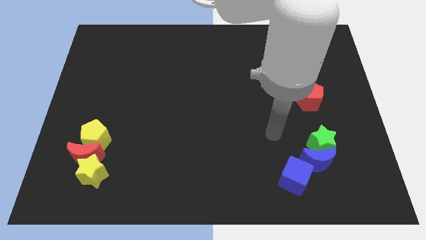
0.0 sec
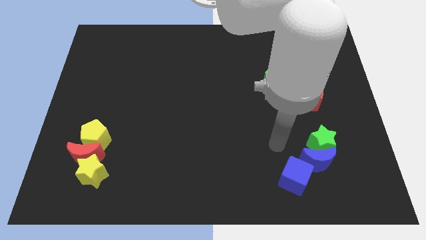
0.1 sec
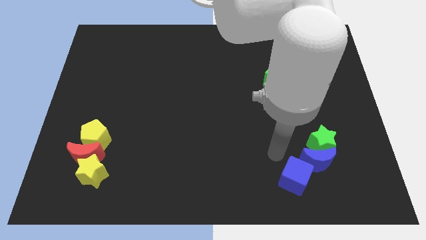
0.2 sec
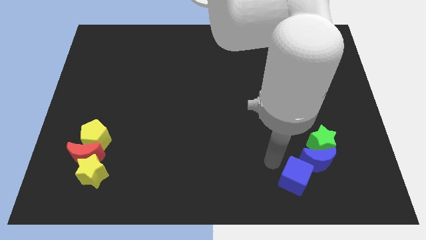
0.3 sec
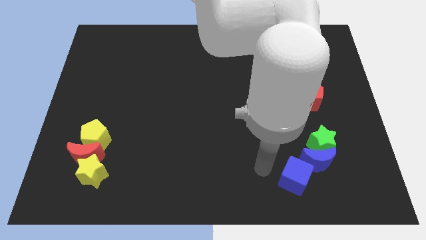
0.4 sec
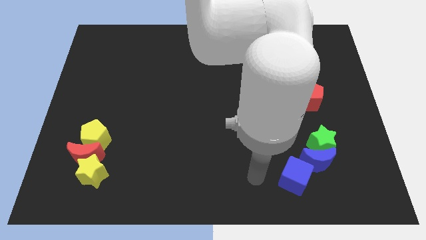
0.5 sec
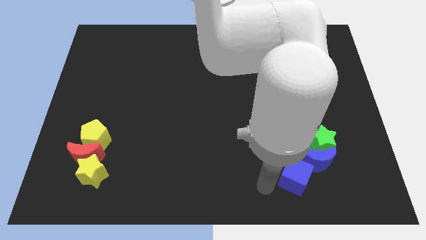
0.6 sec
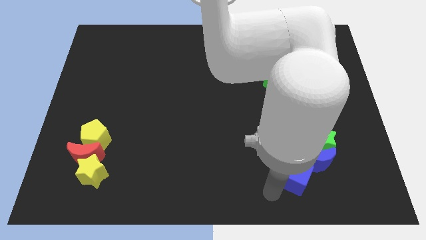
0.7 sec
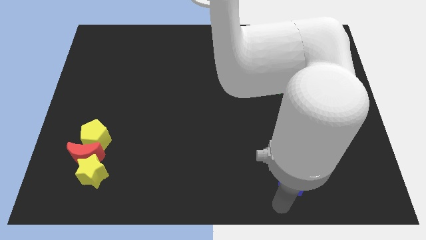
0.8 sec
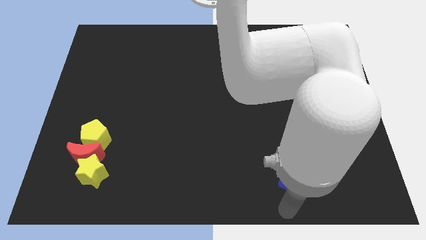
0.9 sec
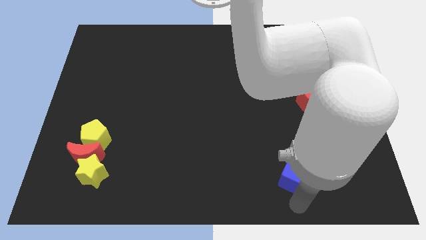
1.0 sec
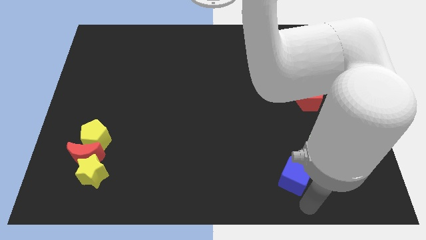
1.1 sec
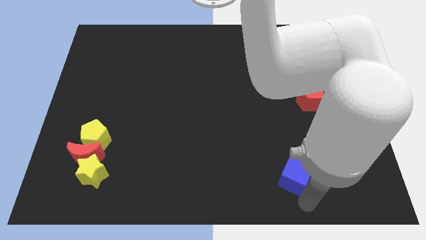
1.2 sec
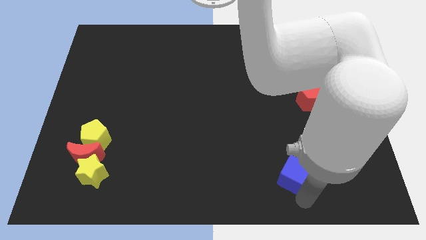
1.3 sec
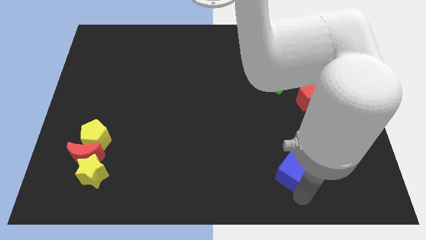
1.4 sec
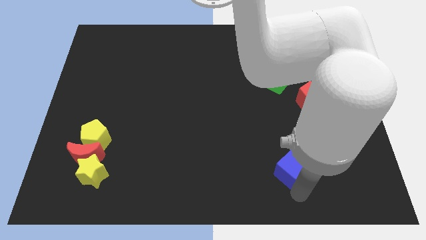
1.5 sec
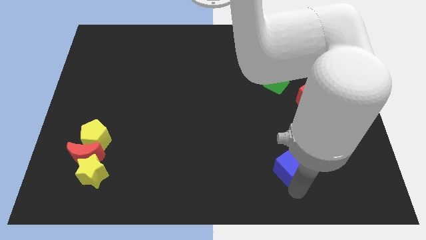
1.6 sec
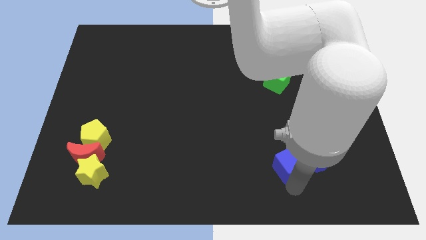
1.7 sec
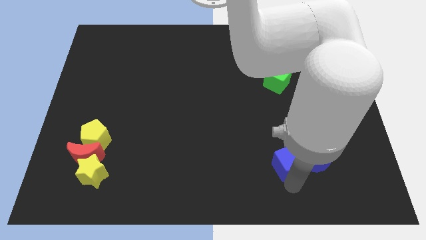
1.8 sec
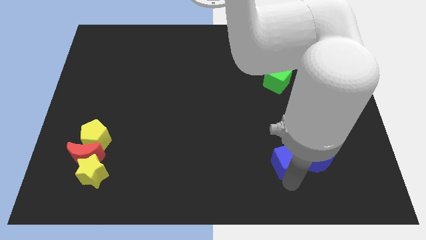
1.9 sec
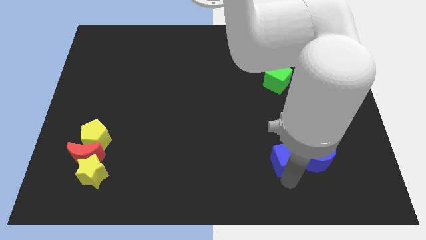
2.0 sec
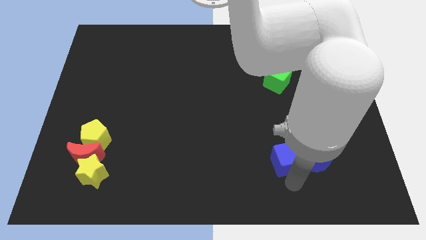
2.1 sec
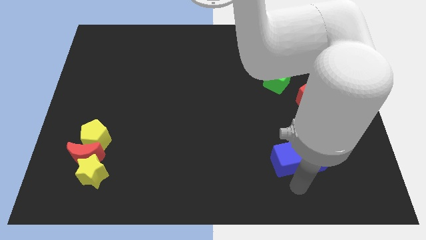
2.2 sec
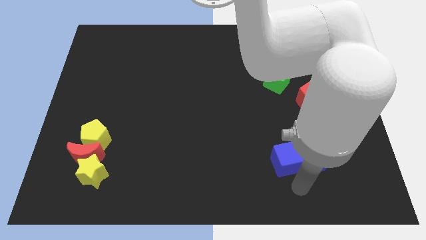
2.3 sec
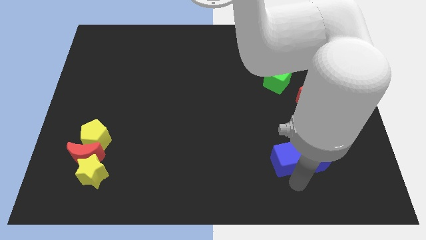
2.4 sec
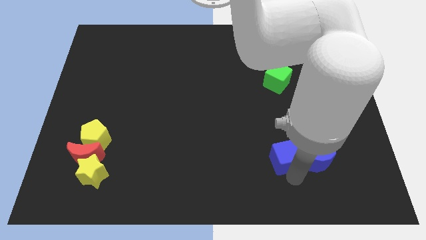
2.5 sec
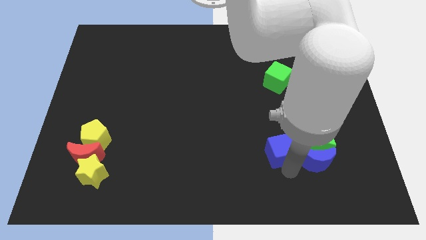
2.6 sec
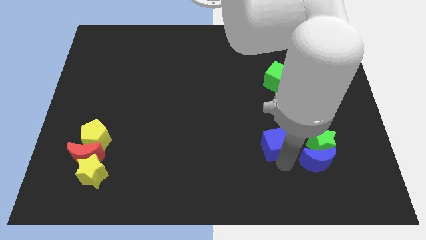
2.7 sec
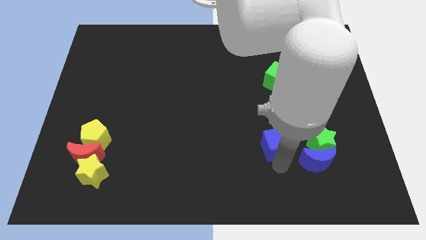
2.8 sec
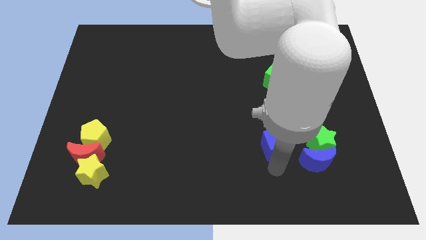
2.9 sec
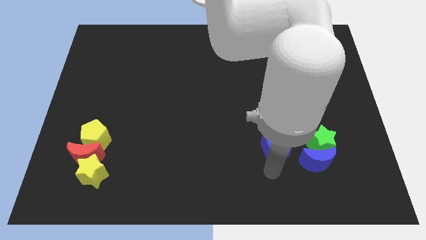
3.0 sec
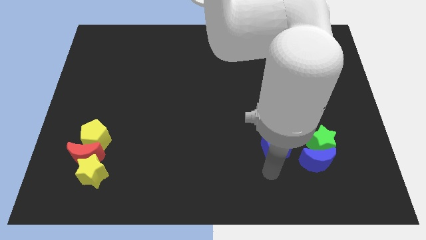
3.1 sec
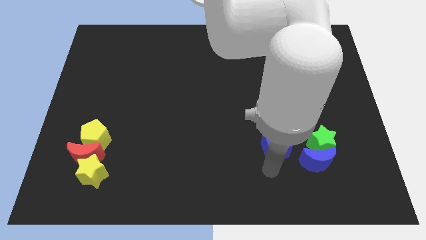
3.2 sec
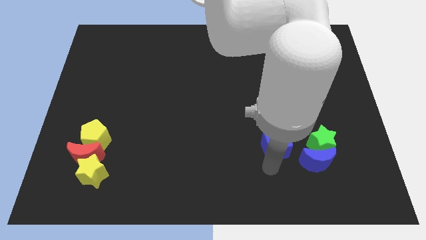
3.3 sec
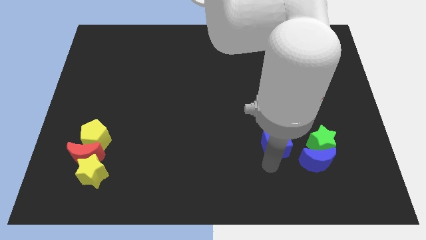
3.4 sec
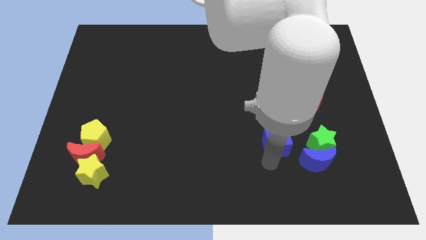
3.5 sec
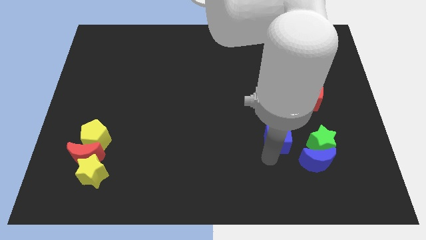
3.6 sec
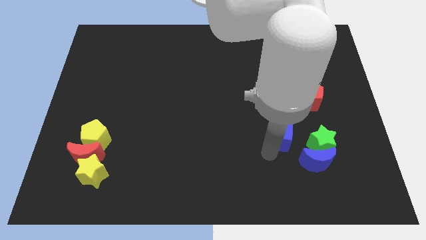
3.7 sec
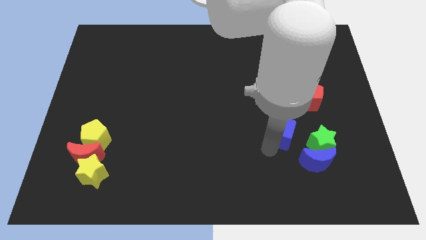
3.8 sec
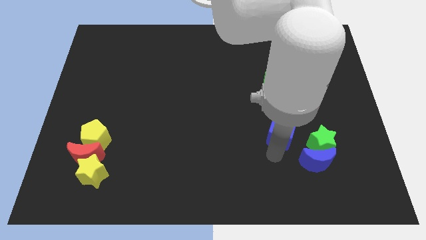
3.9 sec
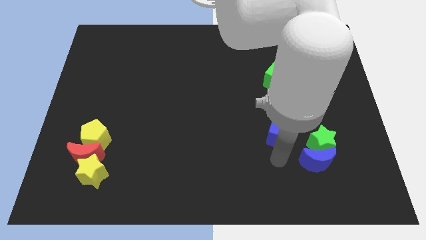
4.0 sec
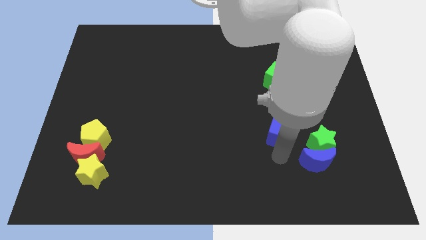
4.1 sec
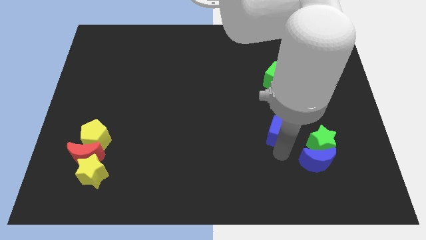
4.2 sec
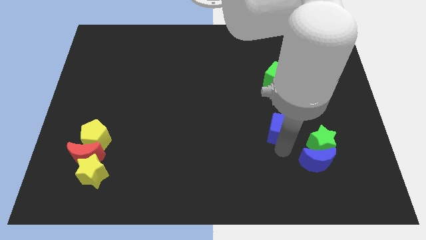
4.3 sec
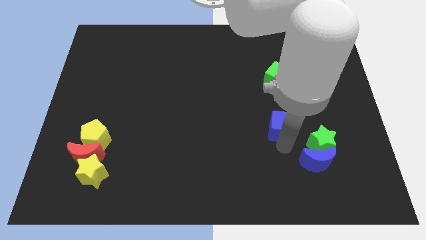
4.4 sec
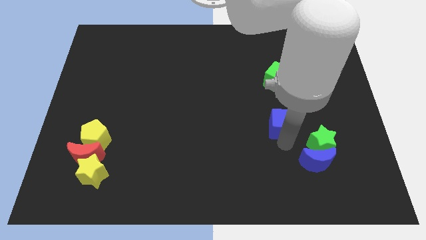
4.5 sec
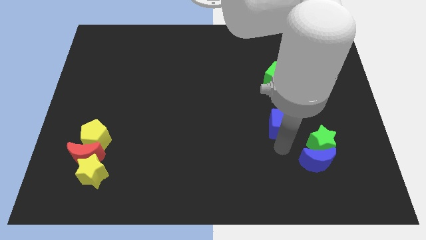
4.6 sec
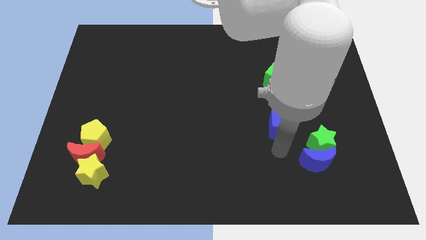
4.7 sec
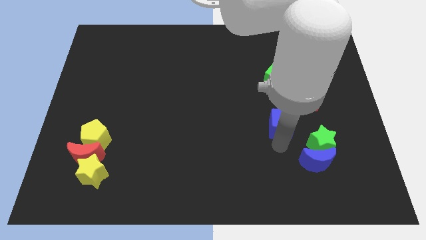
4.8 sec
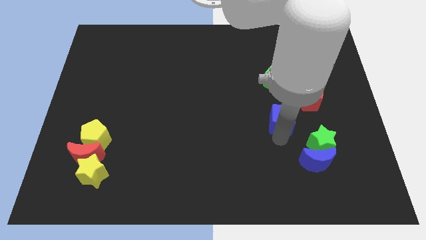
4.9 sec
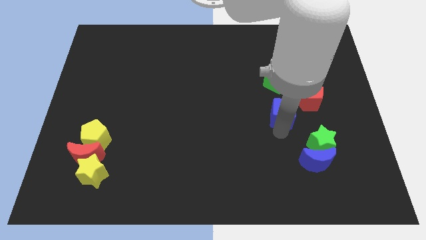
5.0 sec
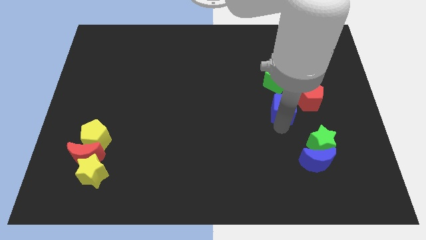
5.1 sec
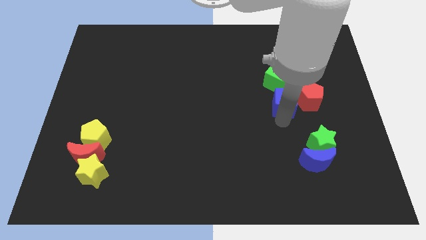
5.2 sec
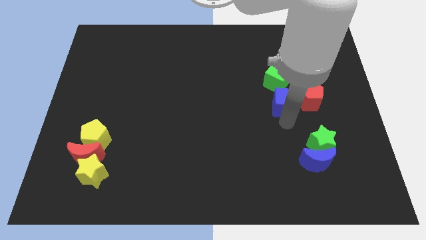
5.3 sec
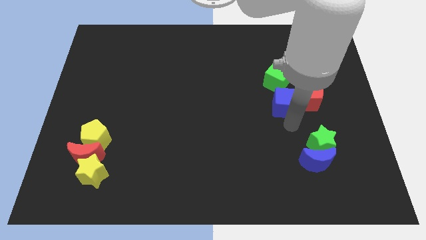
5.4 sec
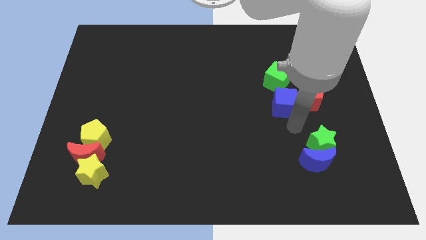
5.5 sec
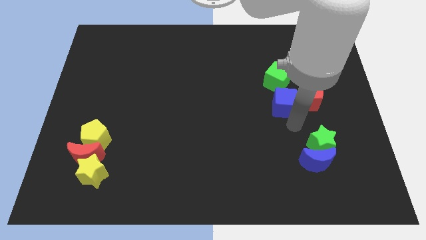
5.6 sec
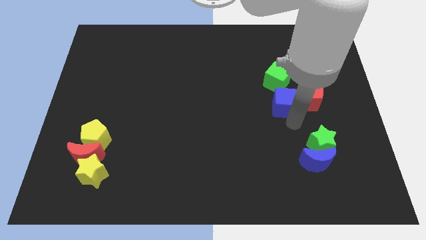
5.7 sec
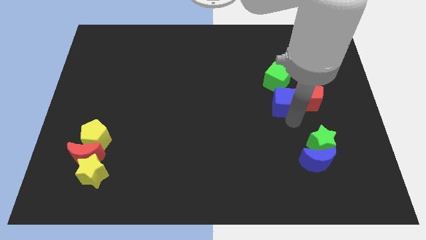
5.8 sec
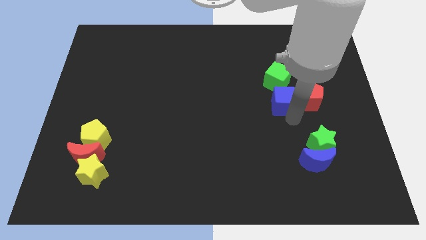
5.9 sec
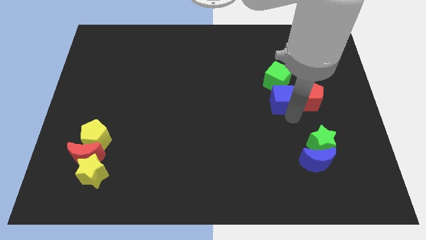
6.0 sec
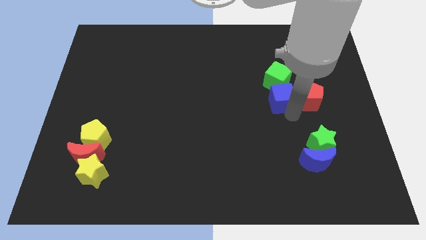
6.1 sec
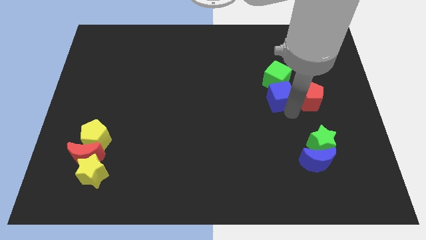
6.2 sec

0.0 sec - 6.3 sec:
slide the blue cube close to the green cube

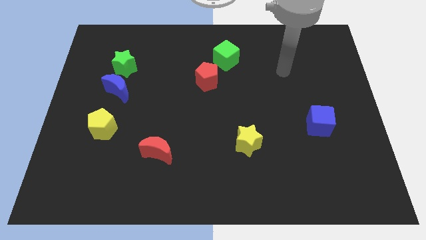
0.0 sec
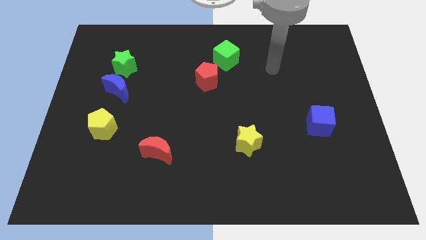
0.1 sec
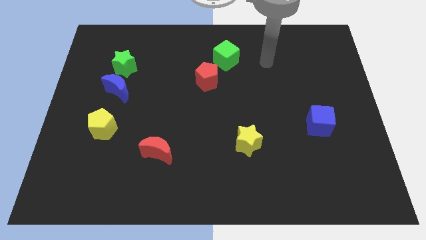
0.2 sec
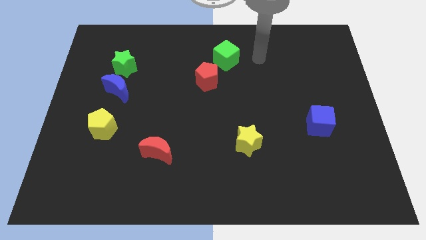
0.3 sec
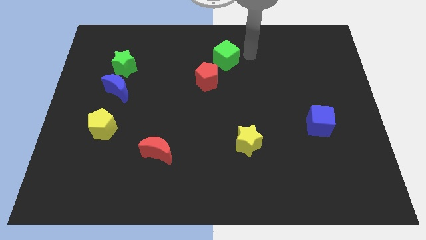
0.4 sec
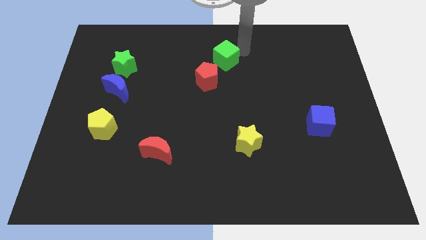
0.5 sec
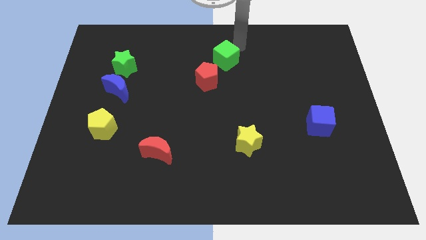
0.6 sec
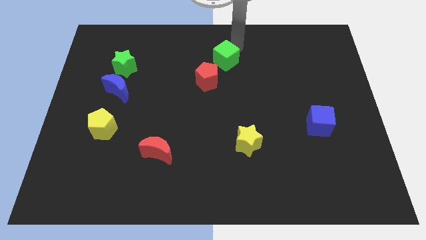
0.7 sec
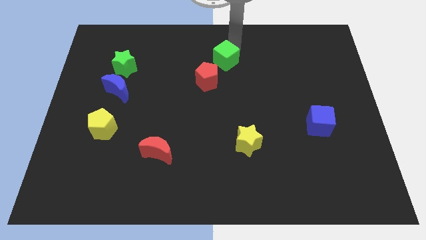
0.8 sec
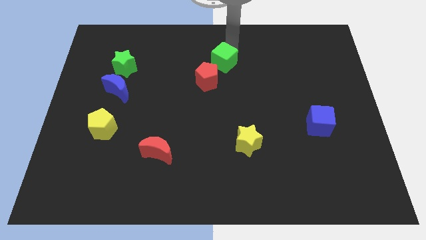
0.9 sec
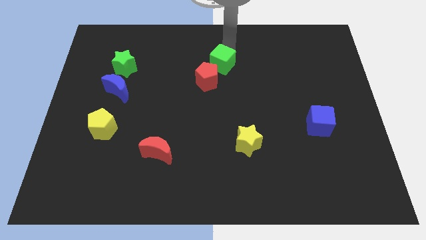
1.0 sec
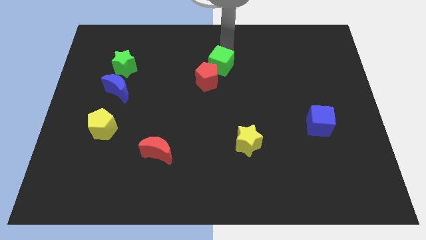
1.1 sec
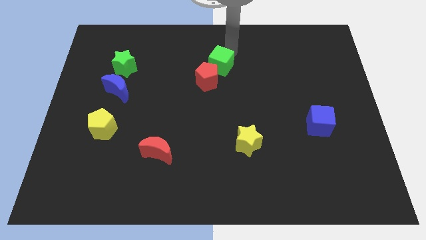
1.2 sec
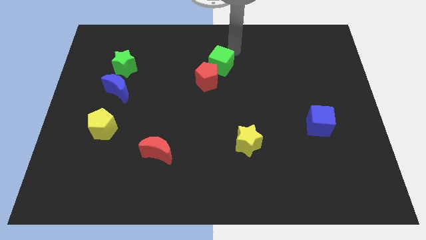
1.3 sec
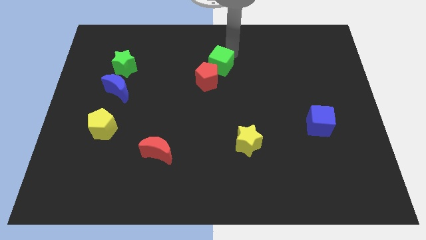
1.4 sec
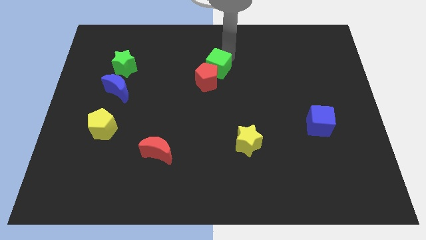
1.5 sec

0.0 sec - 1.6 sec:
put the green cube next to the red pentagon
